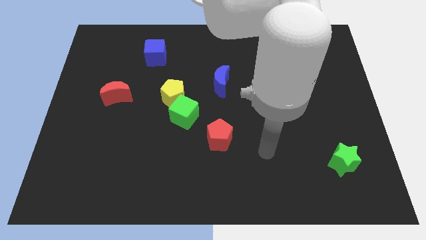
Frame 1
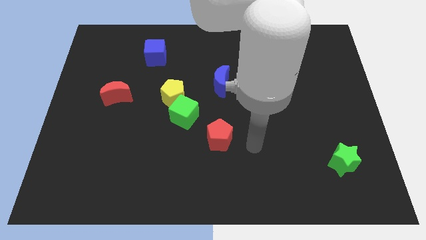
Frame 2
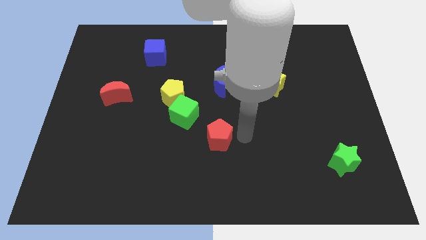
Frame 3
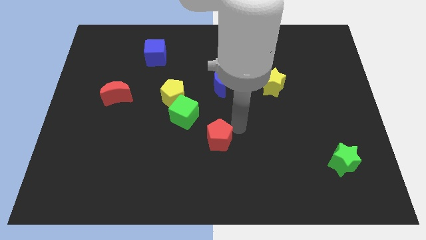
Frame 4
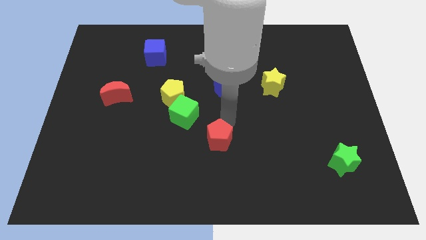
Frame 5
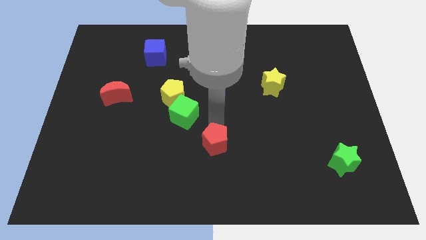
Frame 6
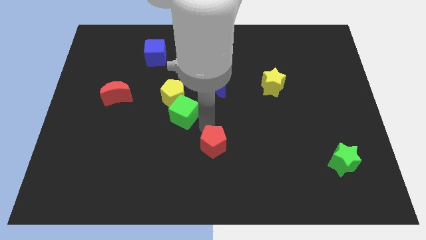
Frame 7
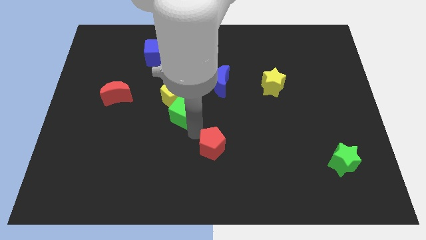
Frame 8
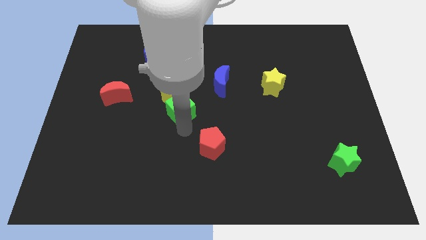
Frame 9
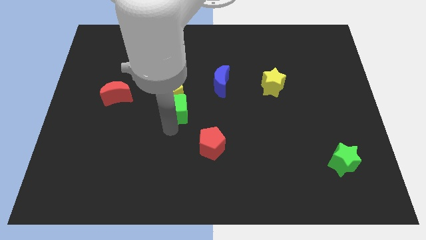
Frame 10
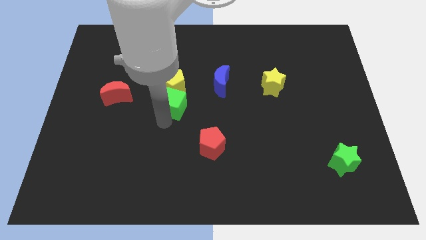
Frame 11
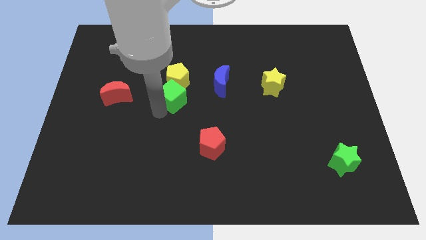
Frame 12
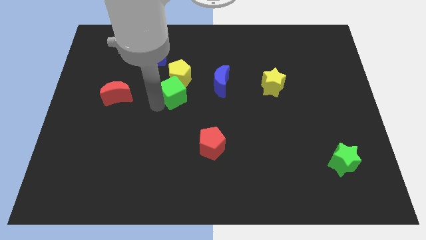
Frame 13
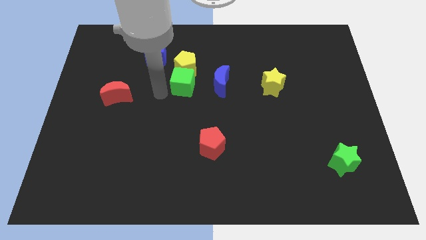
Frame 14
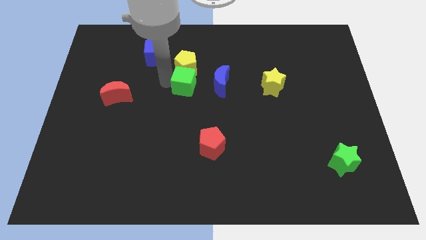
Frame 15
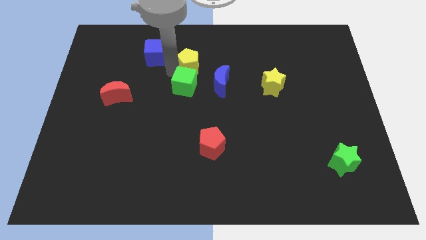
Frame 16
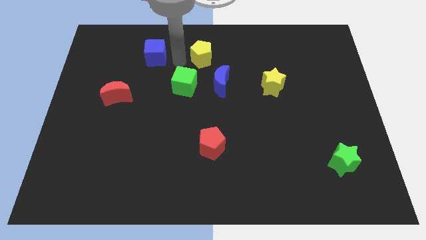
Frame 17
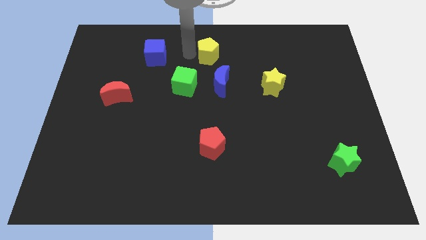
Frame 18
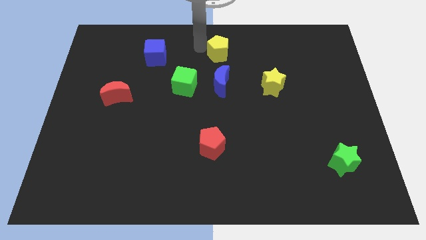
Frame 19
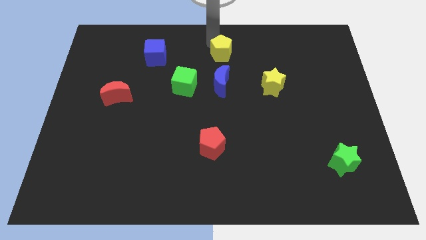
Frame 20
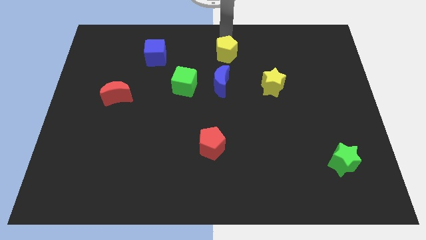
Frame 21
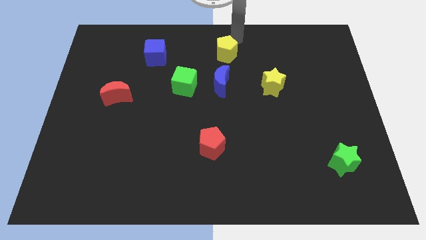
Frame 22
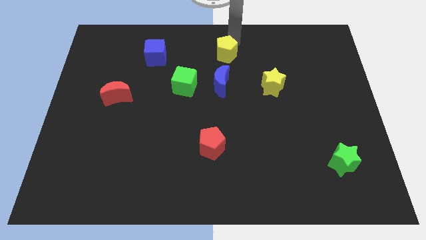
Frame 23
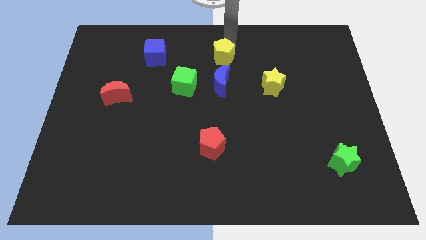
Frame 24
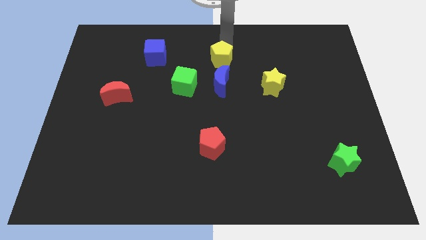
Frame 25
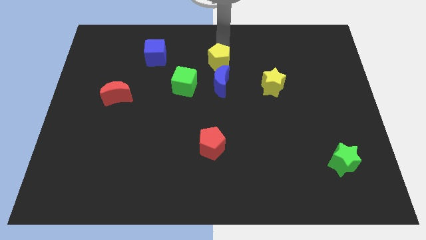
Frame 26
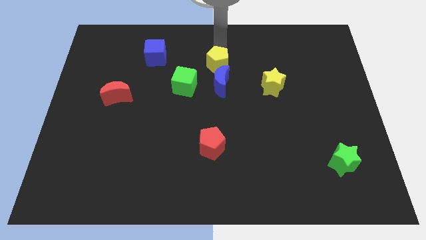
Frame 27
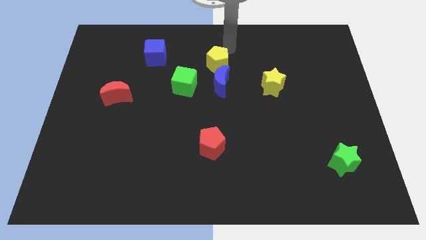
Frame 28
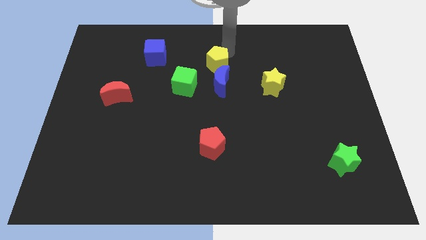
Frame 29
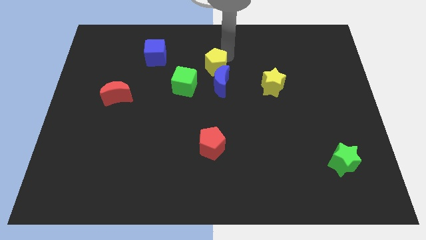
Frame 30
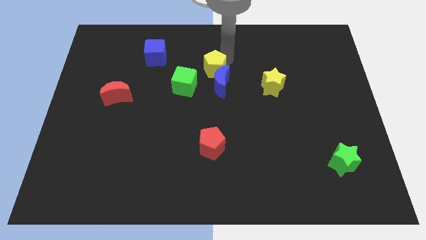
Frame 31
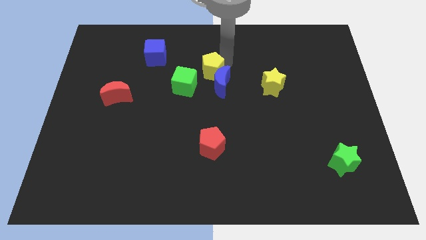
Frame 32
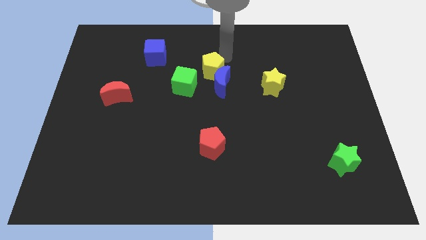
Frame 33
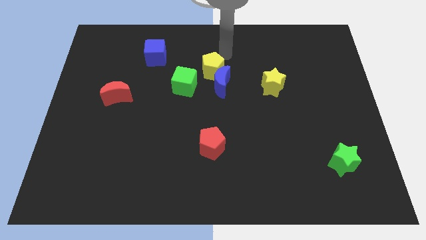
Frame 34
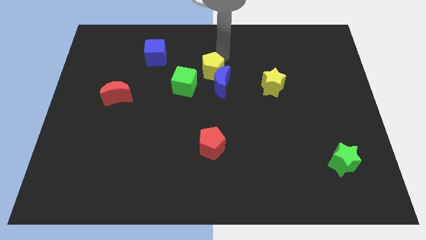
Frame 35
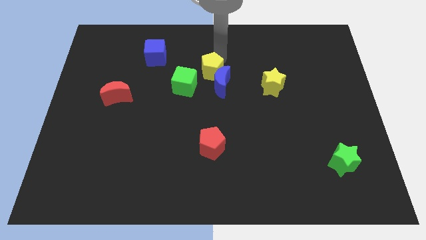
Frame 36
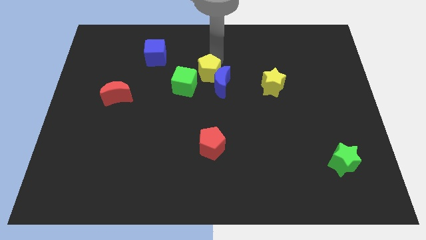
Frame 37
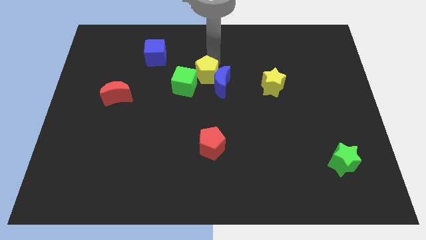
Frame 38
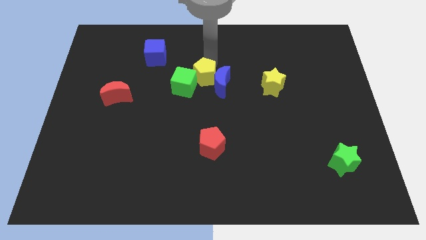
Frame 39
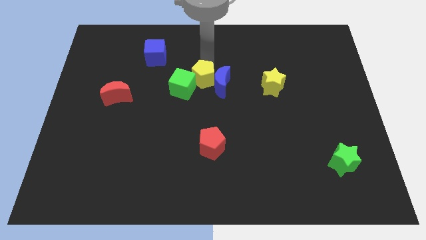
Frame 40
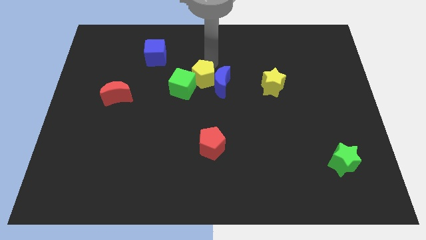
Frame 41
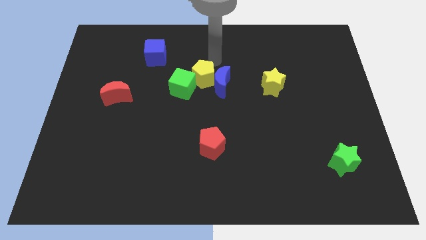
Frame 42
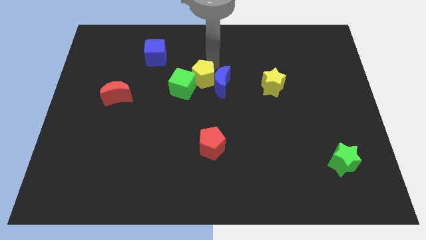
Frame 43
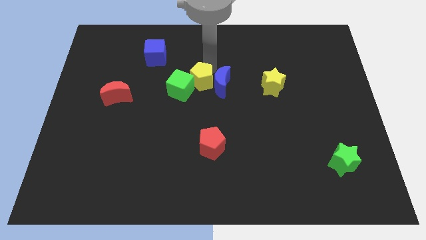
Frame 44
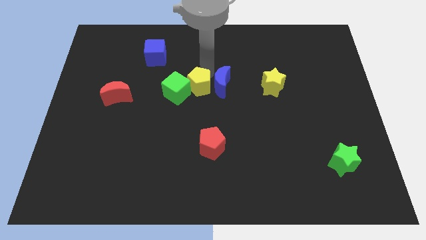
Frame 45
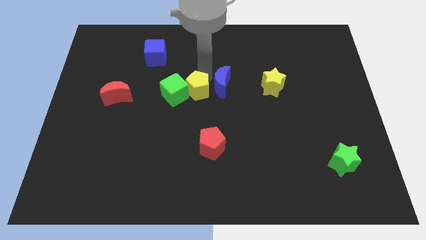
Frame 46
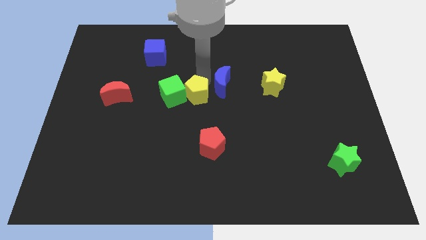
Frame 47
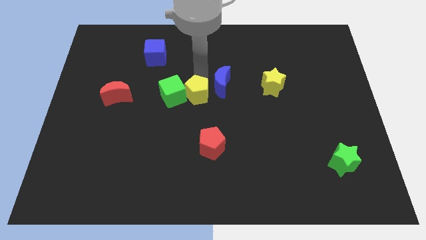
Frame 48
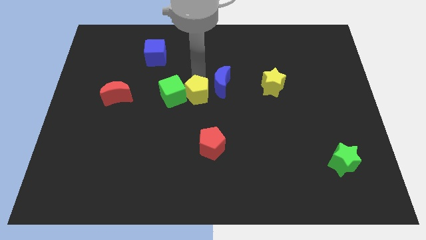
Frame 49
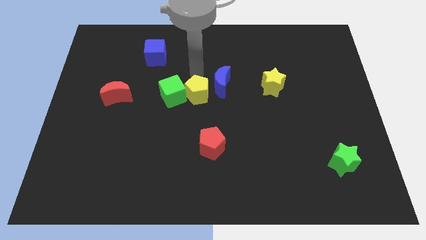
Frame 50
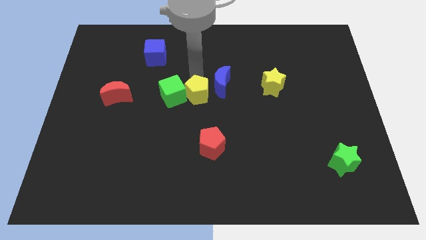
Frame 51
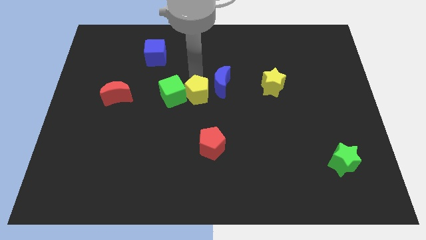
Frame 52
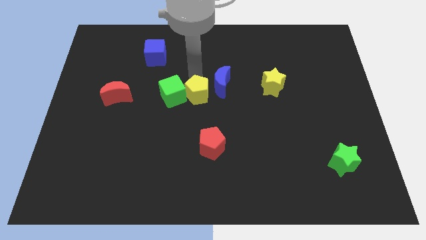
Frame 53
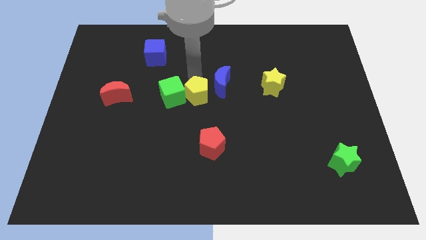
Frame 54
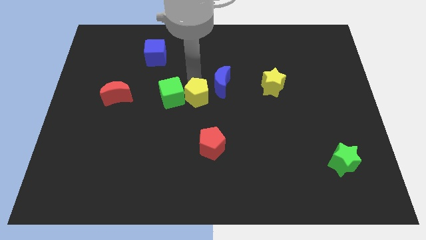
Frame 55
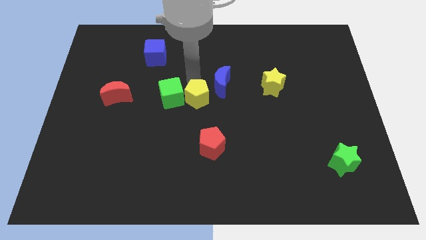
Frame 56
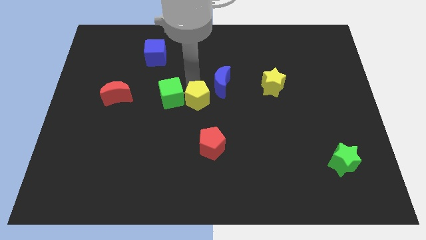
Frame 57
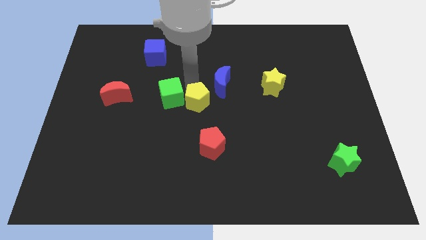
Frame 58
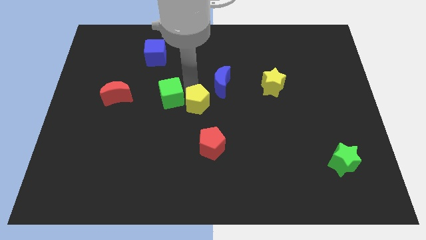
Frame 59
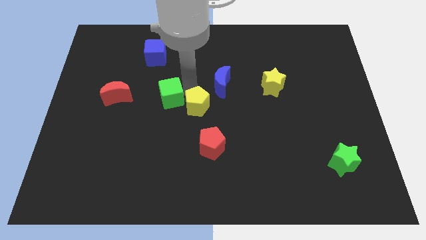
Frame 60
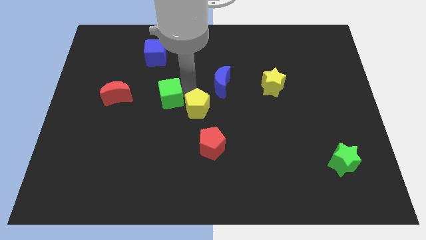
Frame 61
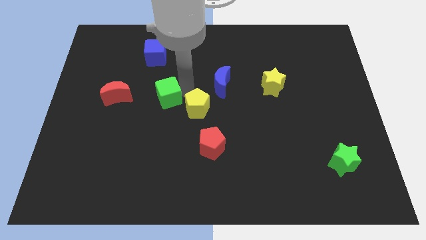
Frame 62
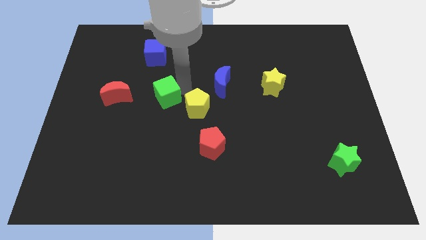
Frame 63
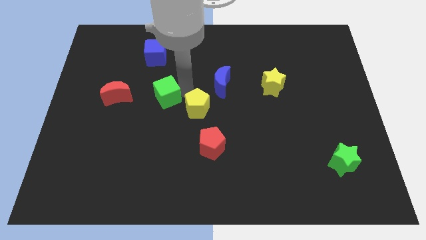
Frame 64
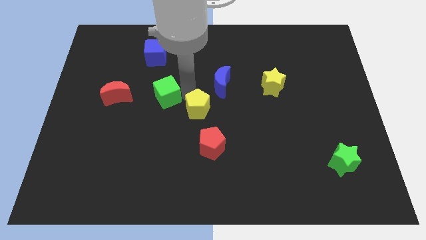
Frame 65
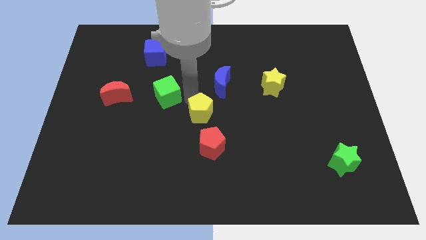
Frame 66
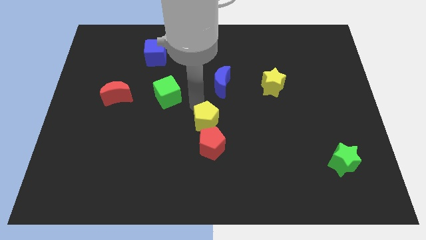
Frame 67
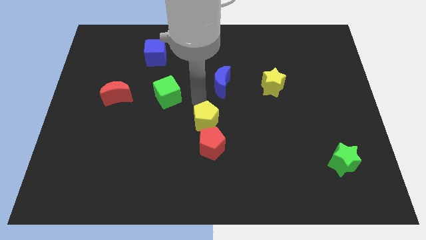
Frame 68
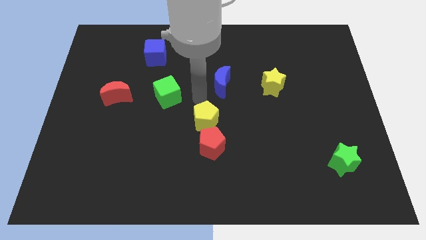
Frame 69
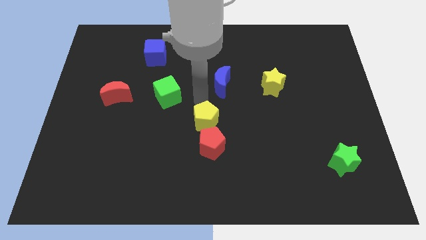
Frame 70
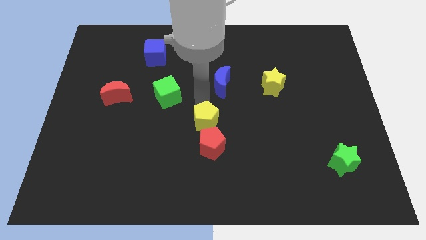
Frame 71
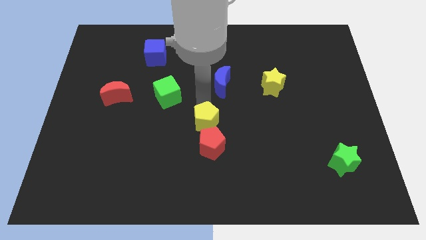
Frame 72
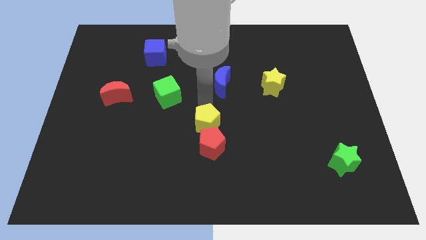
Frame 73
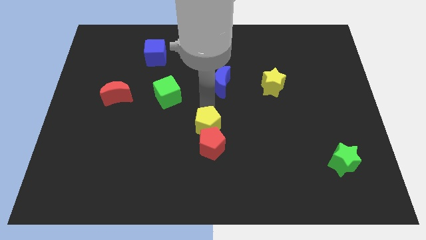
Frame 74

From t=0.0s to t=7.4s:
put the yellow pentagon close to the red pentagon
